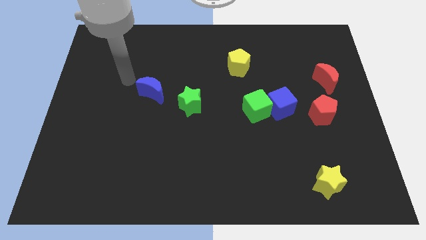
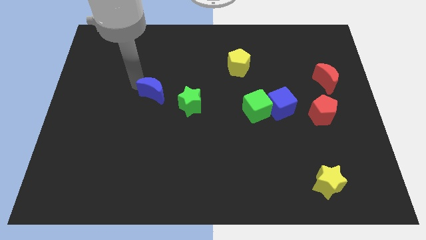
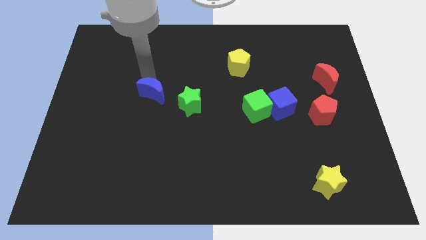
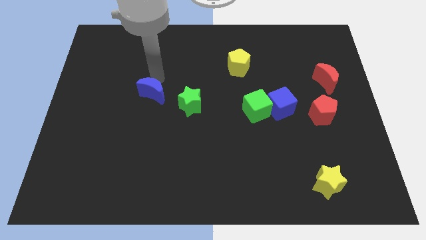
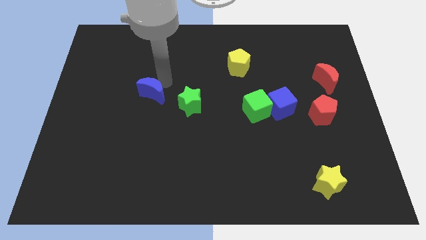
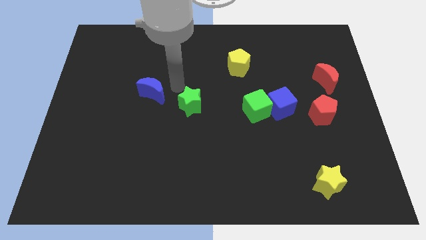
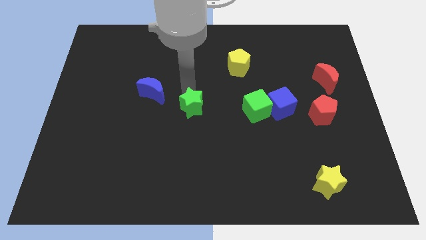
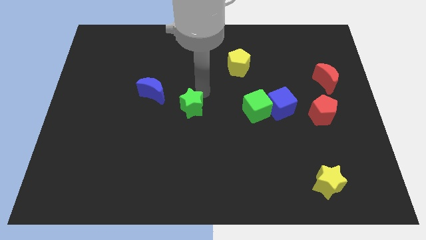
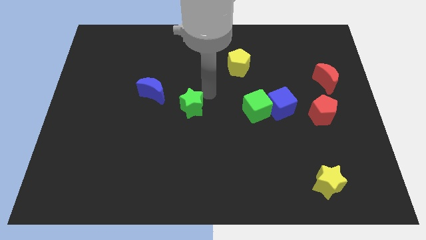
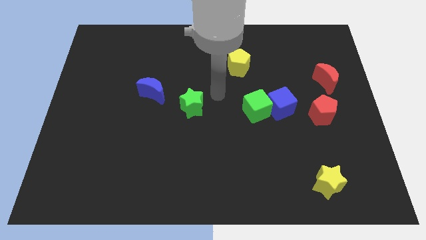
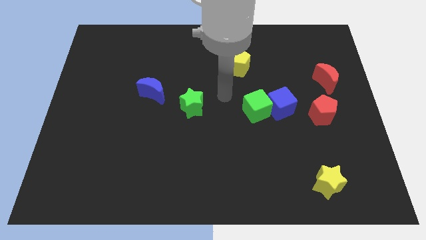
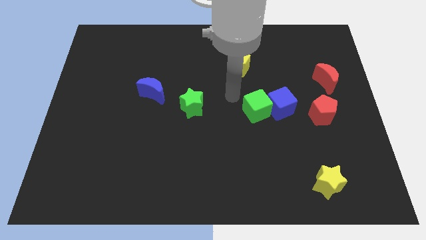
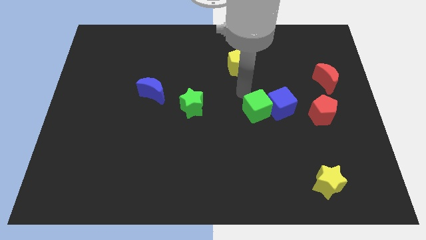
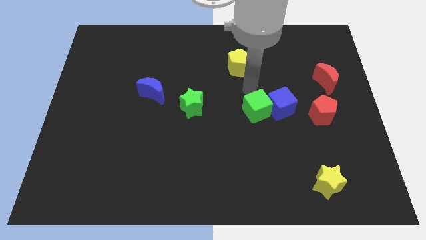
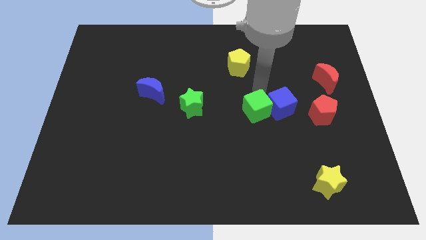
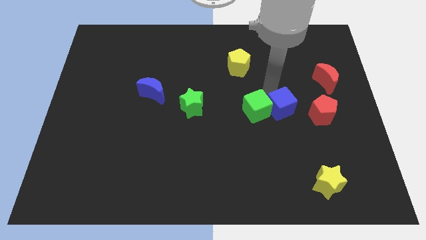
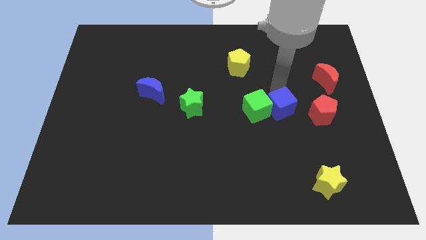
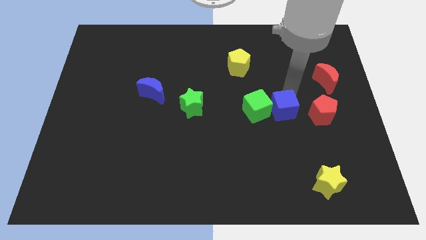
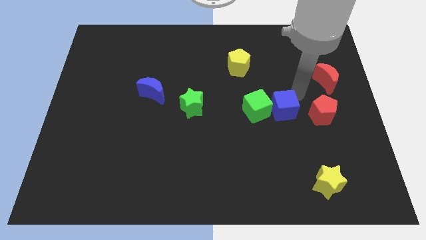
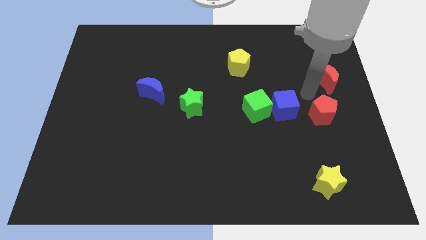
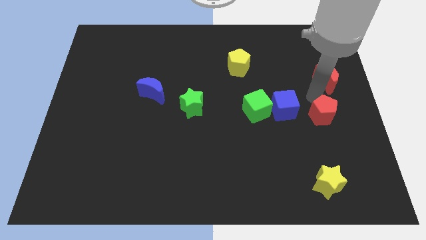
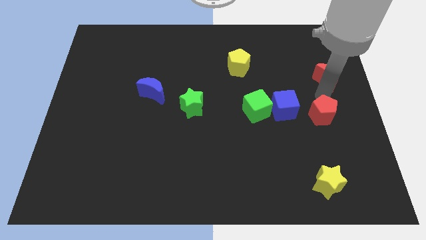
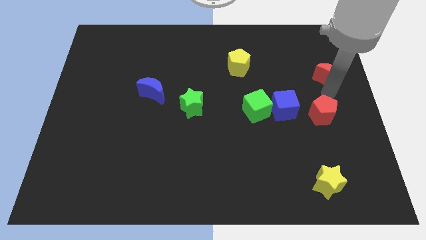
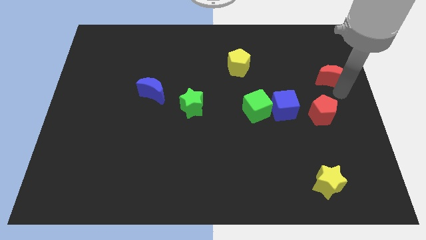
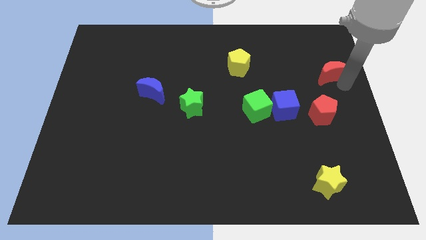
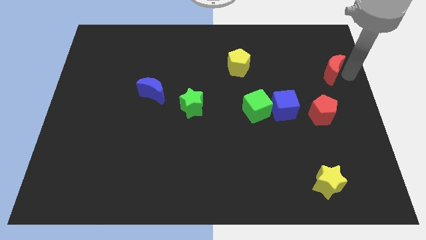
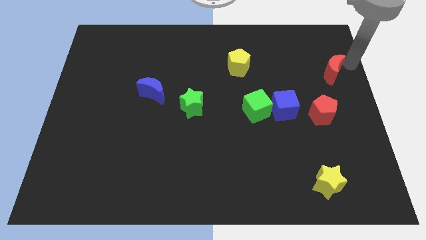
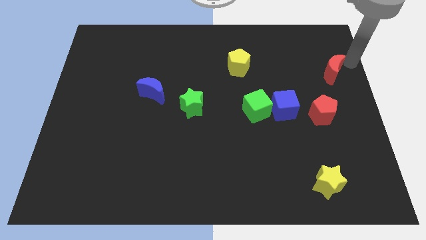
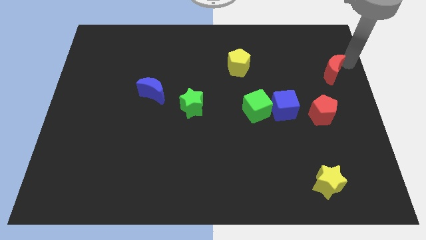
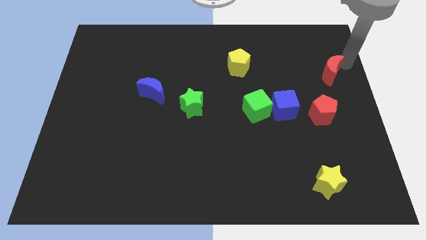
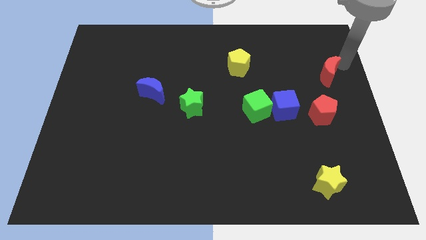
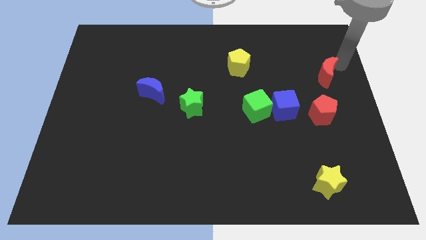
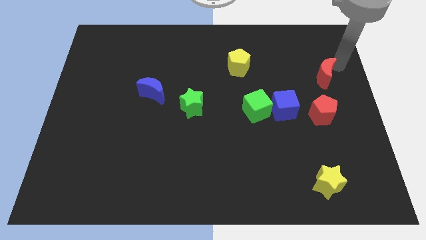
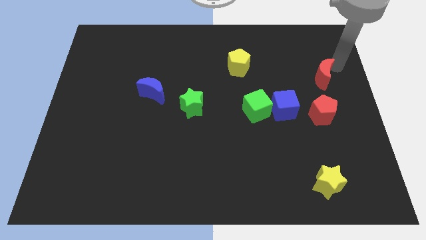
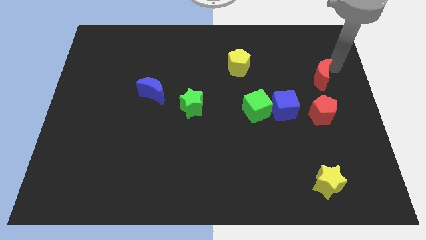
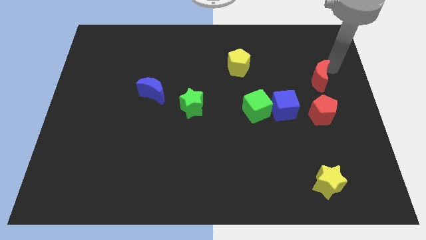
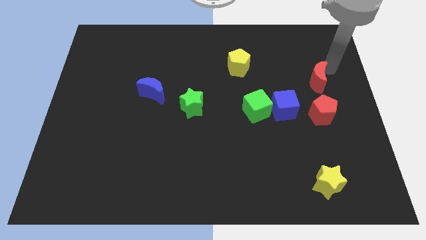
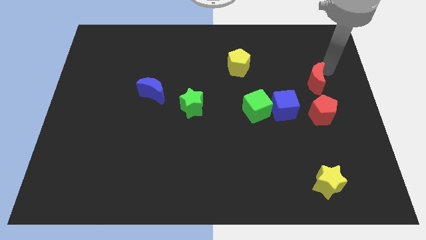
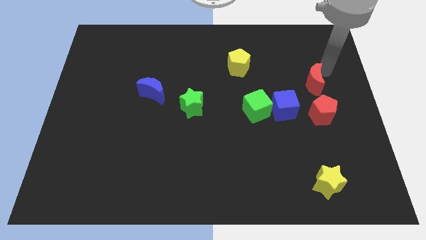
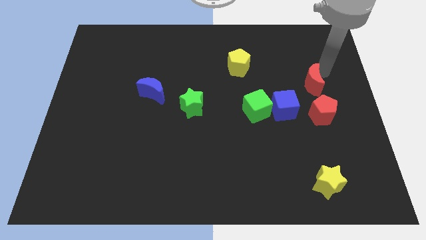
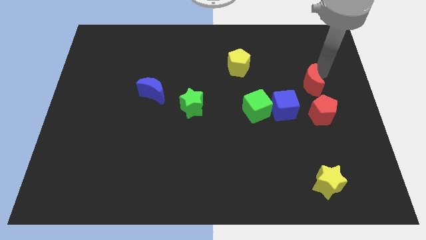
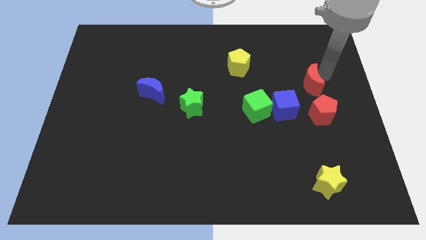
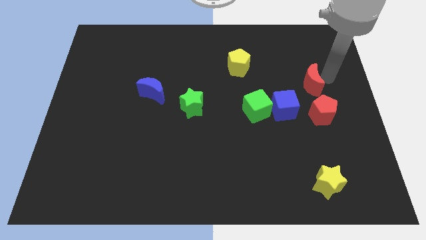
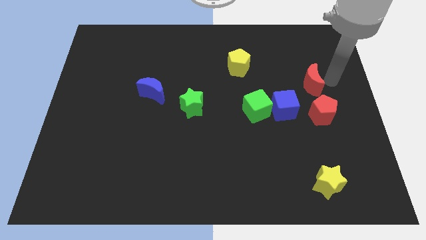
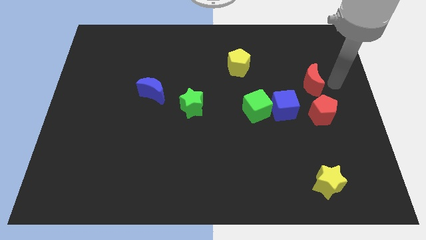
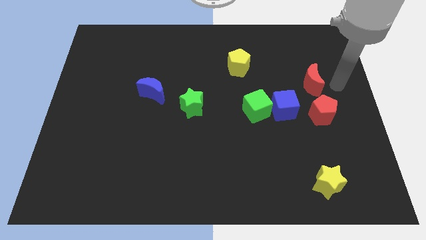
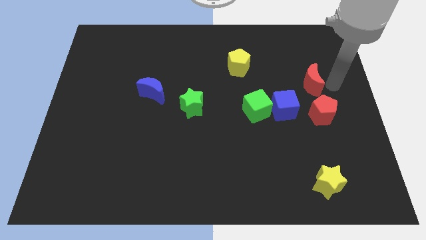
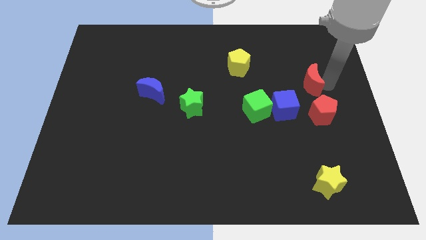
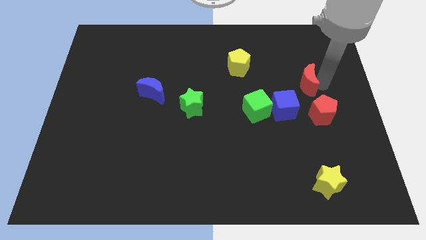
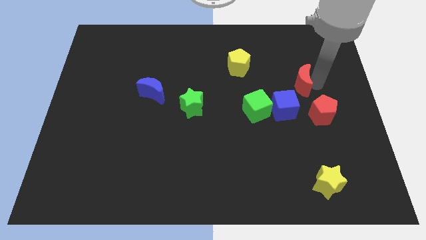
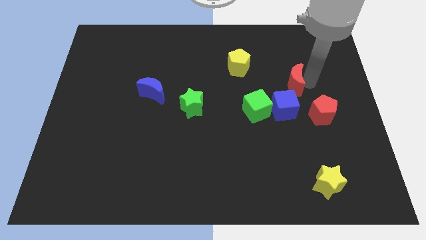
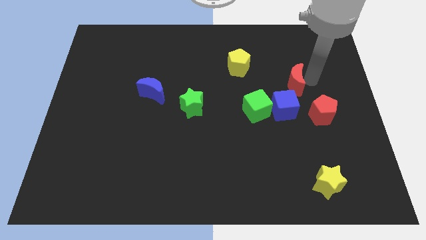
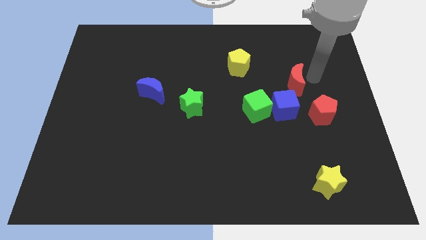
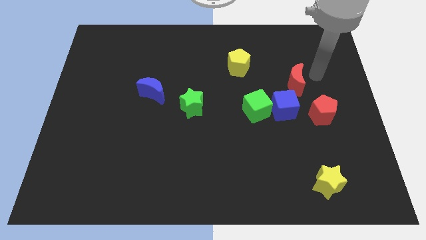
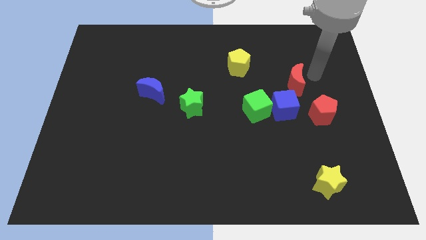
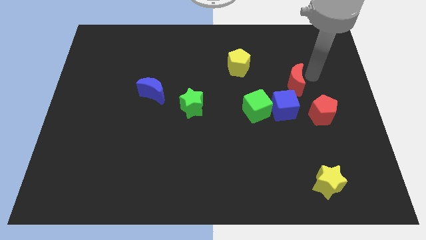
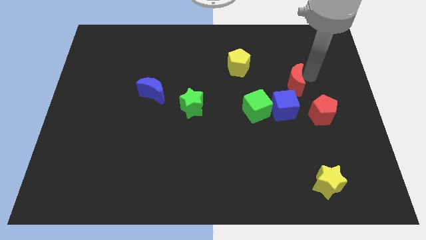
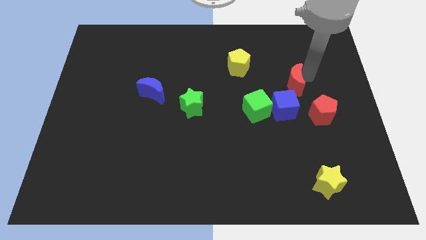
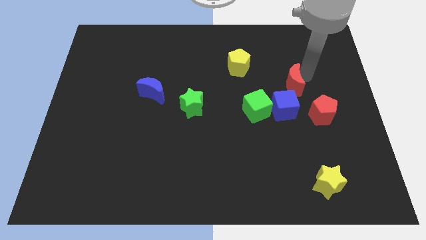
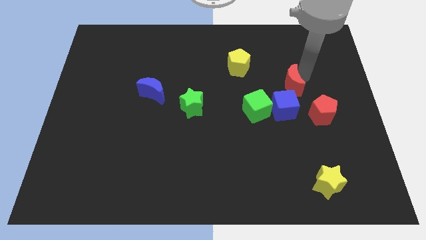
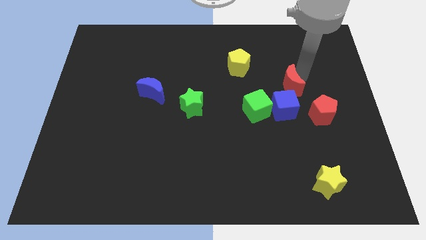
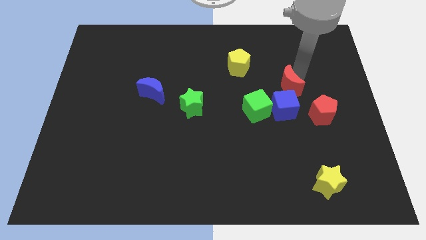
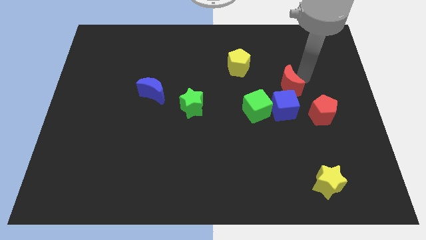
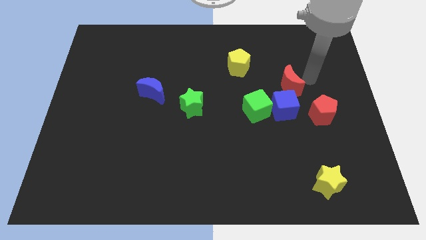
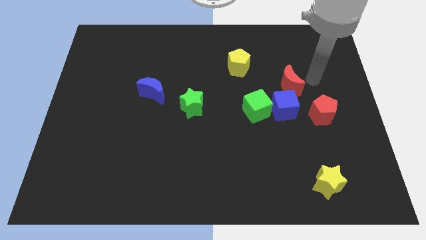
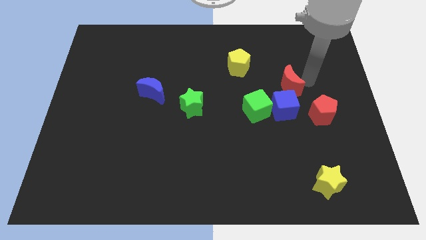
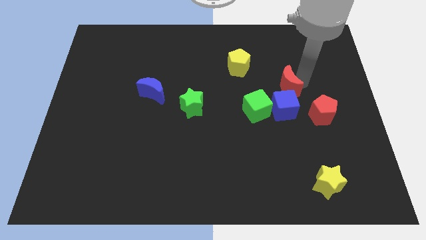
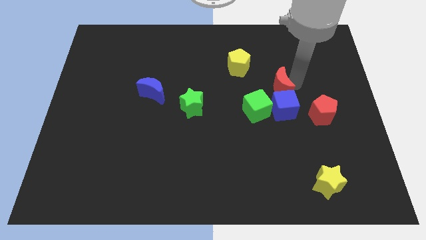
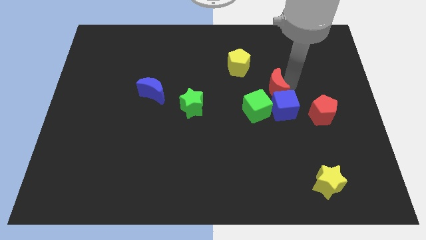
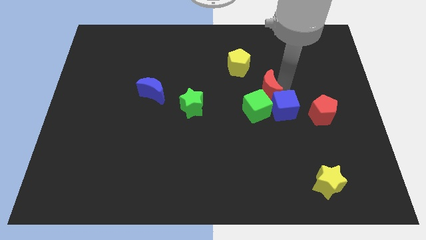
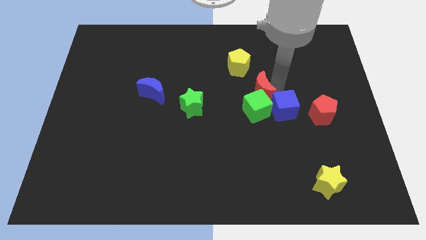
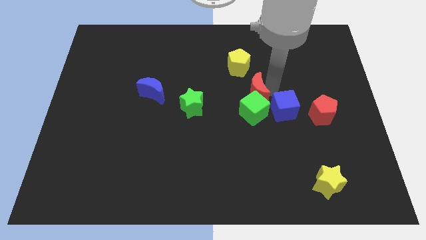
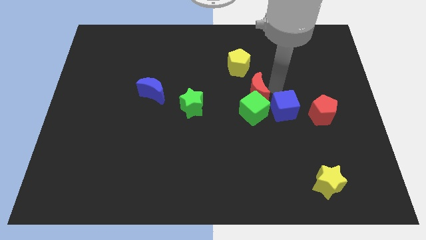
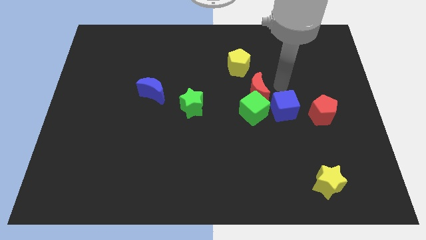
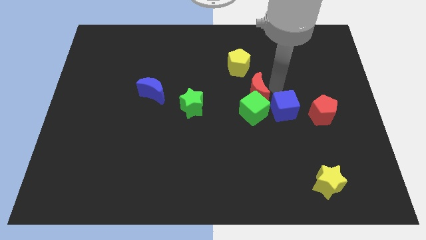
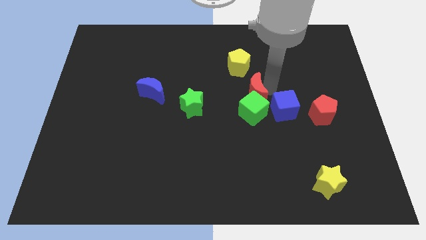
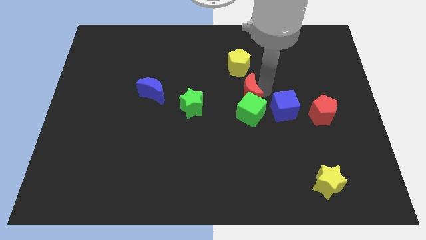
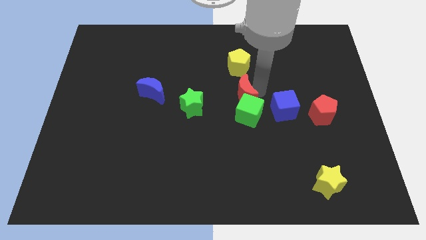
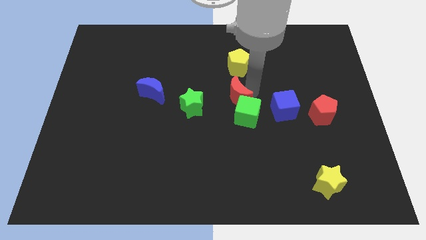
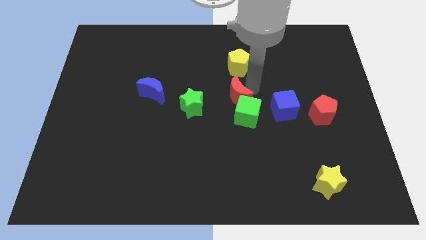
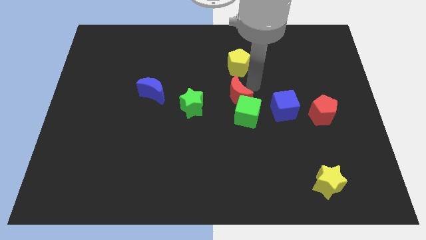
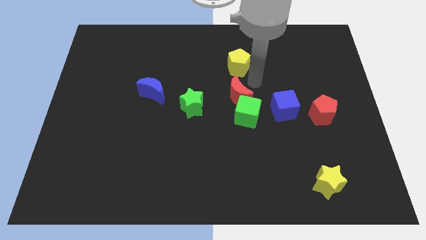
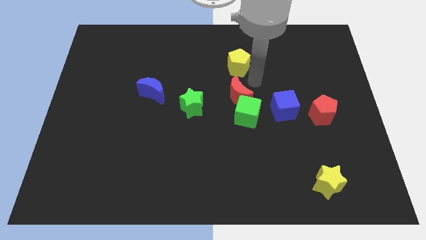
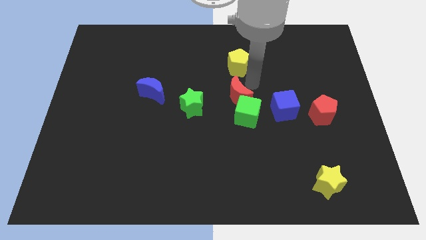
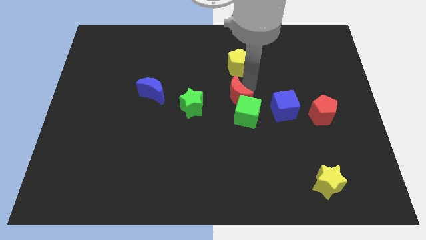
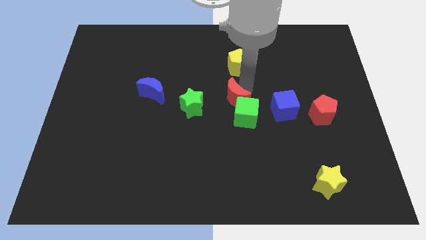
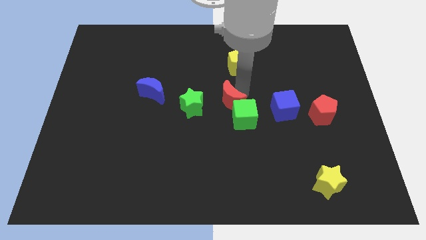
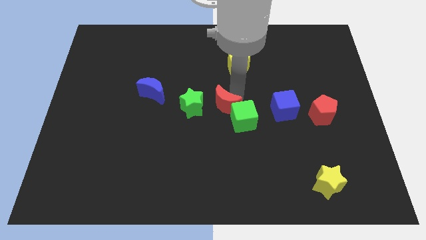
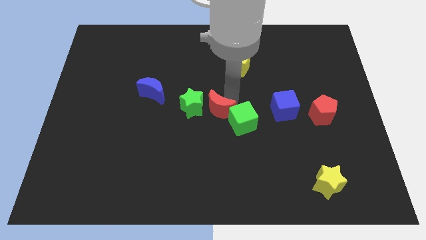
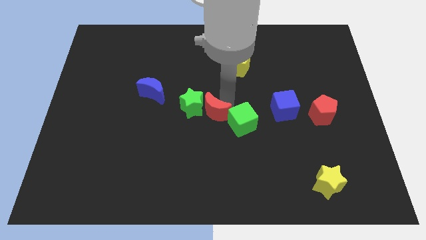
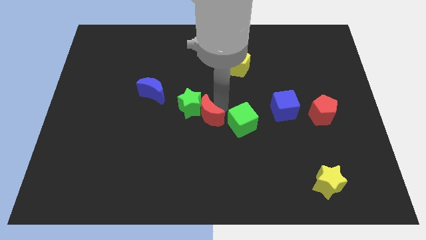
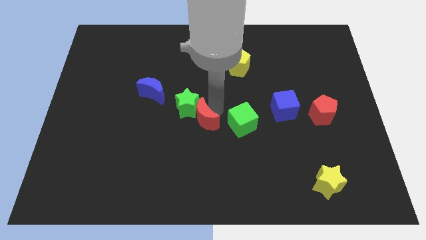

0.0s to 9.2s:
put the red moon below the green star
